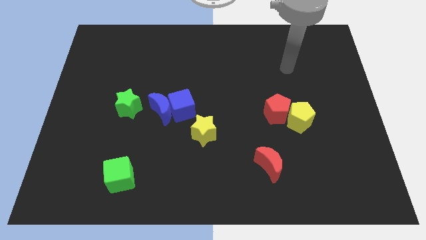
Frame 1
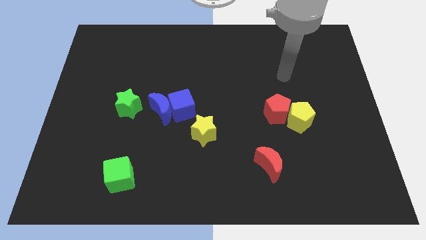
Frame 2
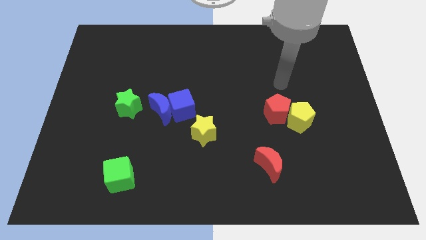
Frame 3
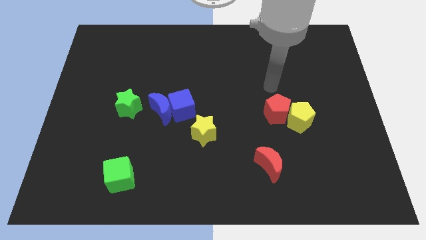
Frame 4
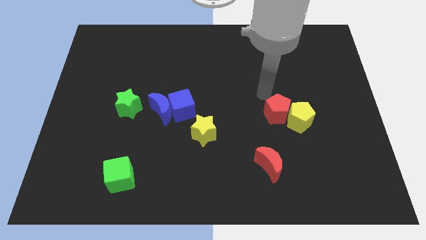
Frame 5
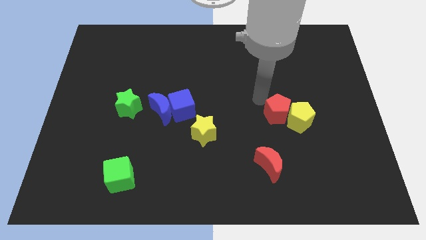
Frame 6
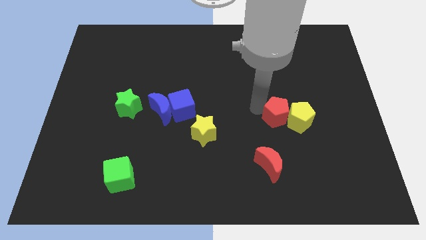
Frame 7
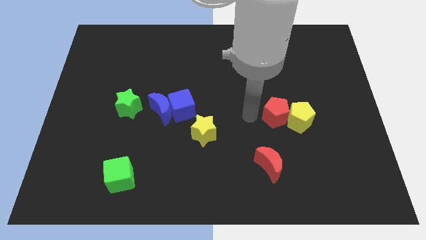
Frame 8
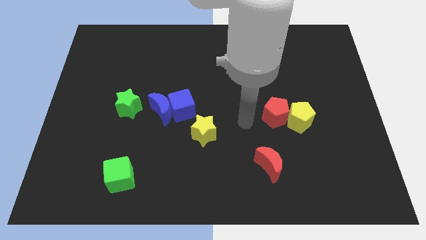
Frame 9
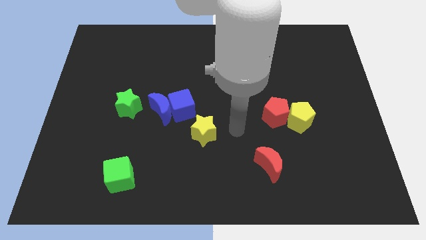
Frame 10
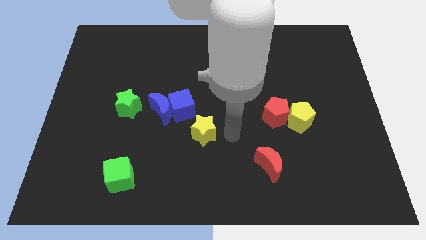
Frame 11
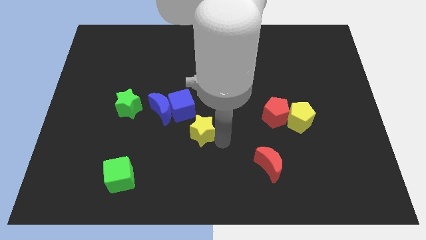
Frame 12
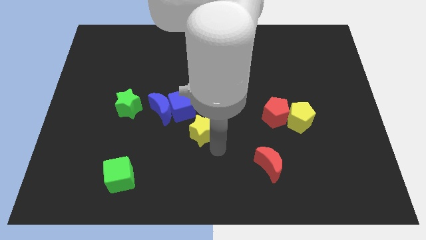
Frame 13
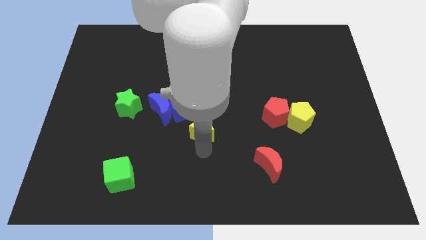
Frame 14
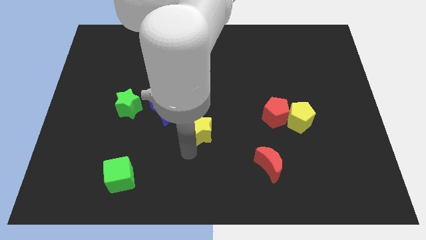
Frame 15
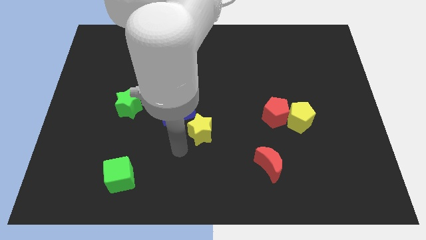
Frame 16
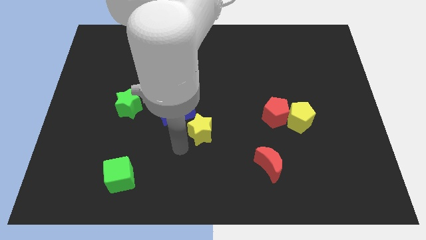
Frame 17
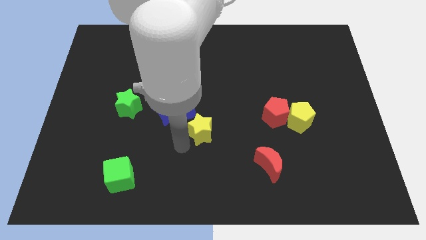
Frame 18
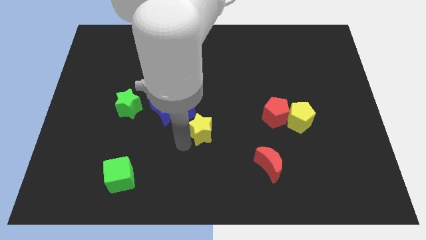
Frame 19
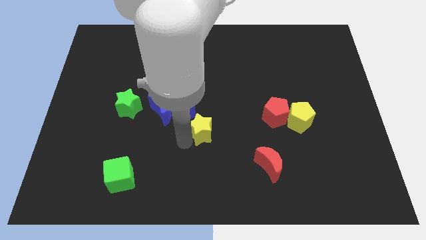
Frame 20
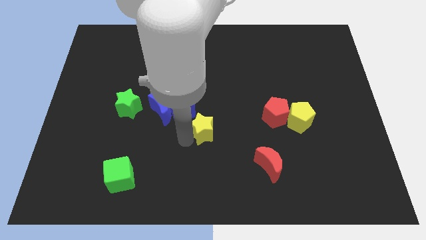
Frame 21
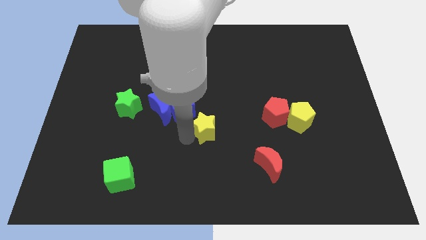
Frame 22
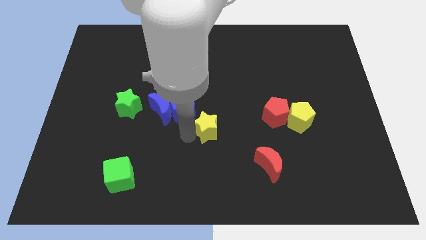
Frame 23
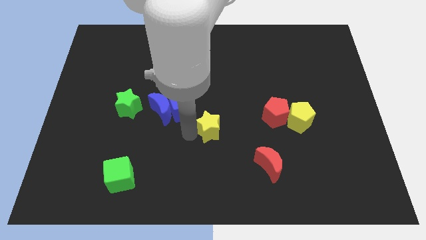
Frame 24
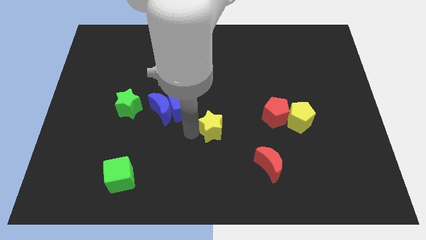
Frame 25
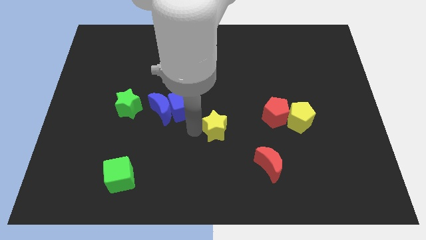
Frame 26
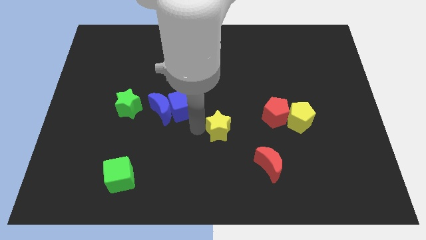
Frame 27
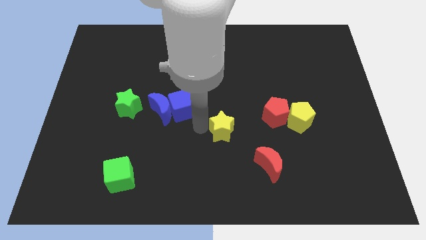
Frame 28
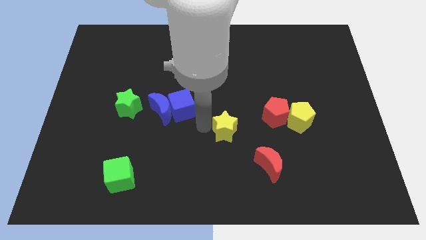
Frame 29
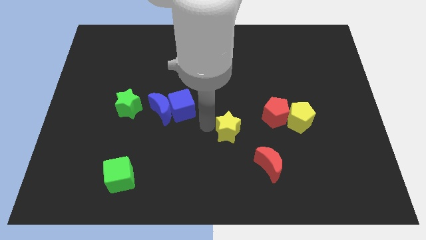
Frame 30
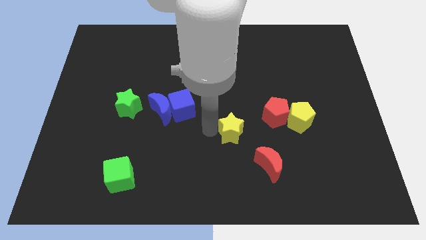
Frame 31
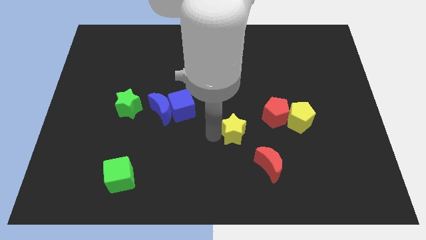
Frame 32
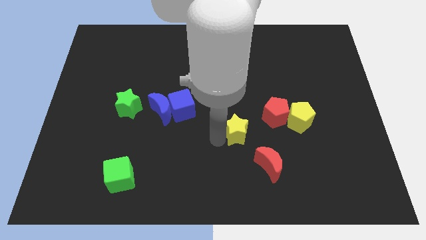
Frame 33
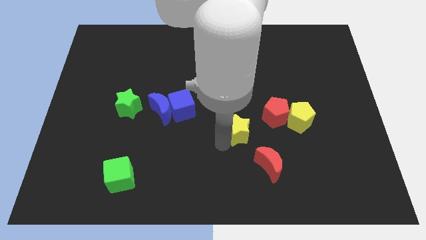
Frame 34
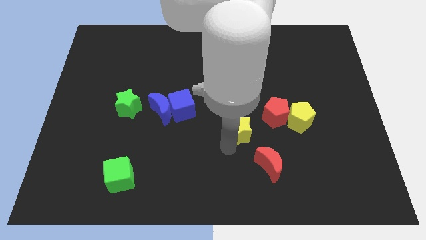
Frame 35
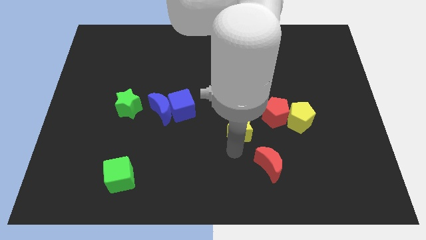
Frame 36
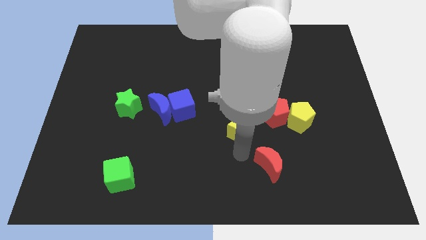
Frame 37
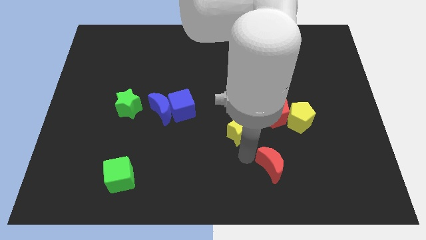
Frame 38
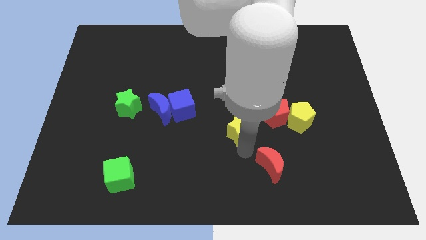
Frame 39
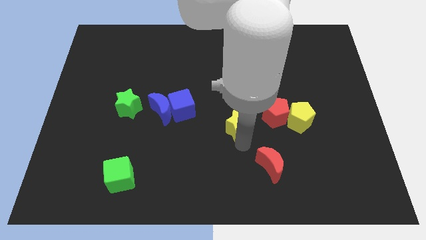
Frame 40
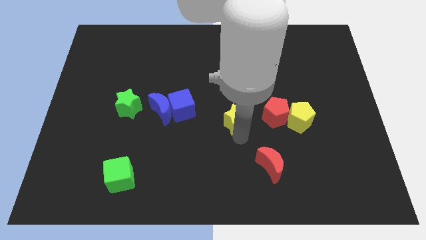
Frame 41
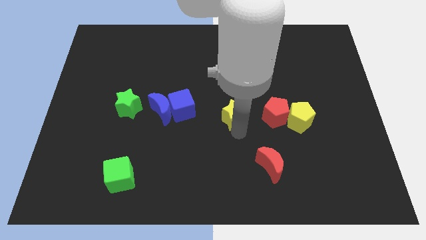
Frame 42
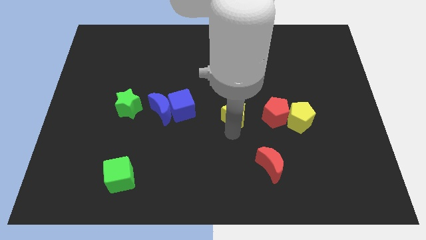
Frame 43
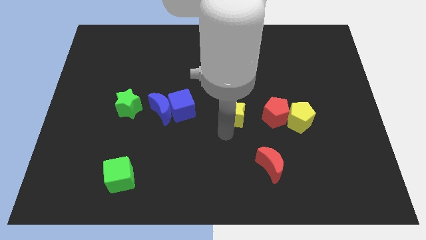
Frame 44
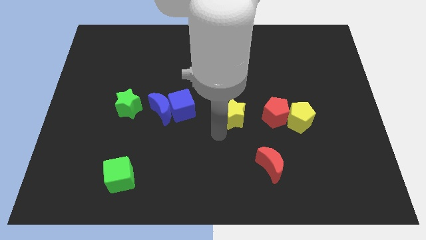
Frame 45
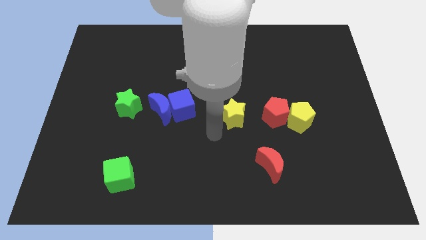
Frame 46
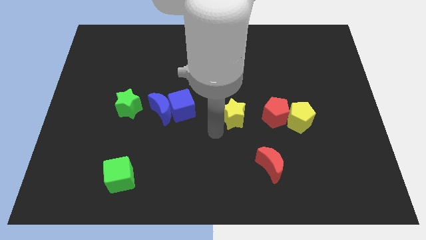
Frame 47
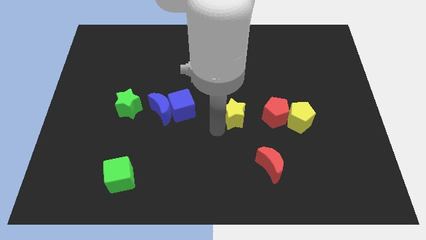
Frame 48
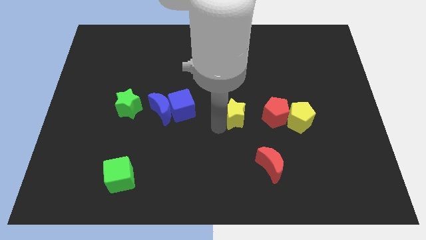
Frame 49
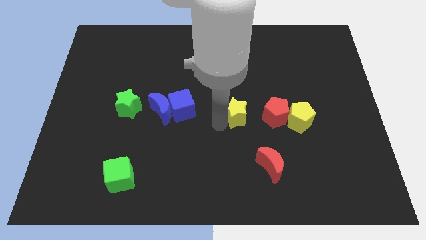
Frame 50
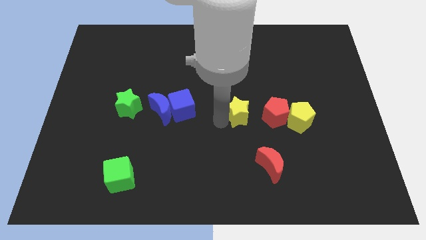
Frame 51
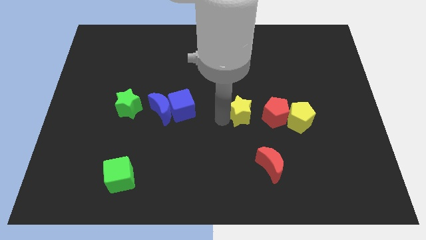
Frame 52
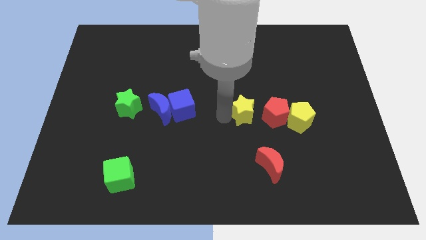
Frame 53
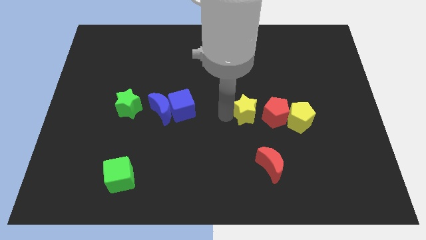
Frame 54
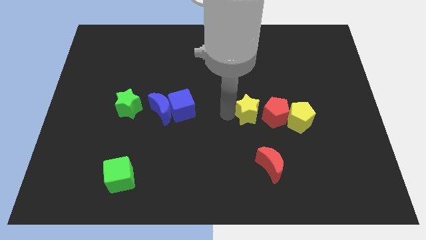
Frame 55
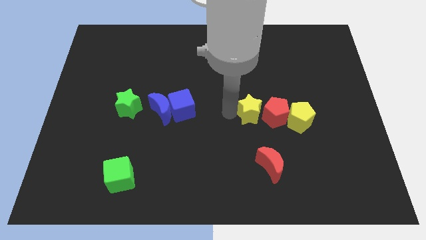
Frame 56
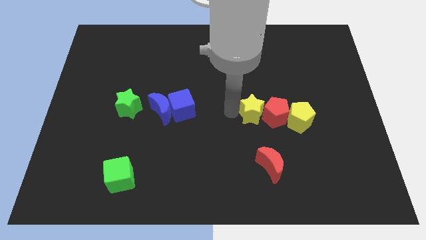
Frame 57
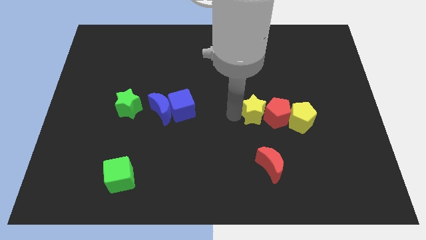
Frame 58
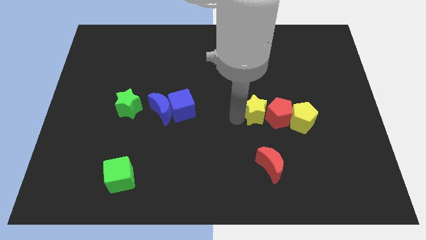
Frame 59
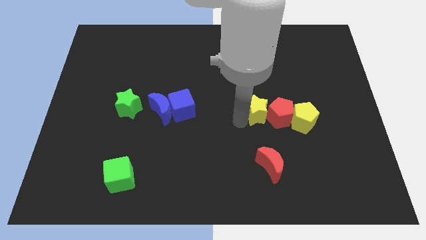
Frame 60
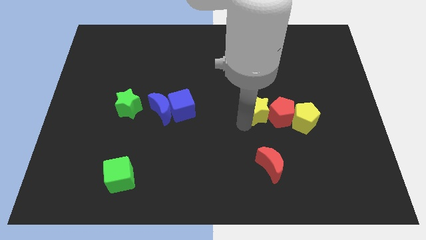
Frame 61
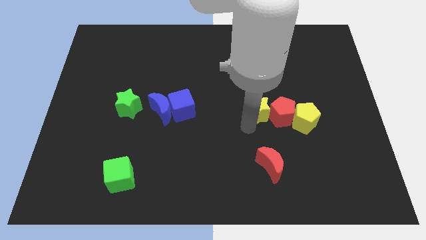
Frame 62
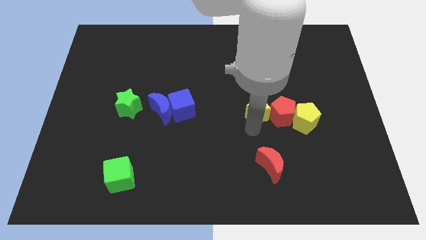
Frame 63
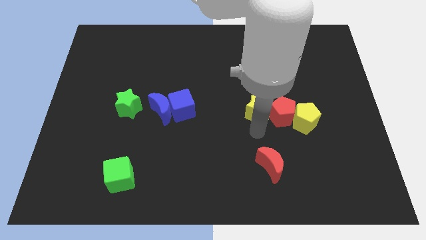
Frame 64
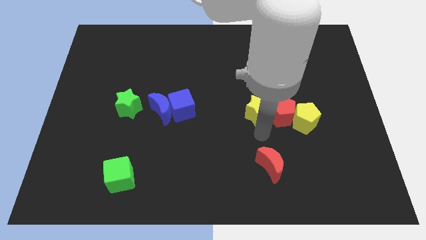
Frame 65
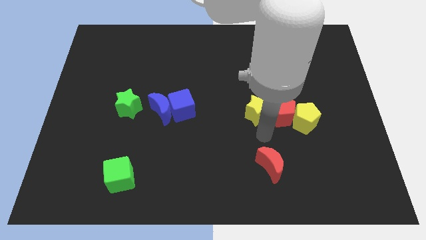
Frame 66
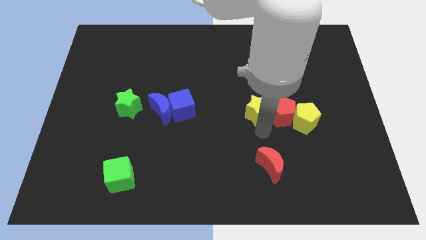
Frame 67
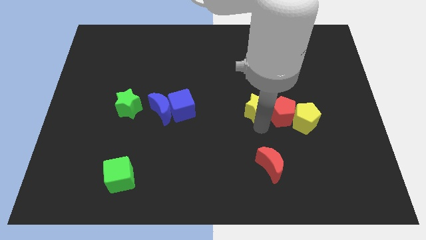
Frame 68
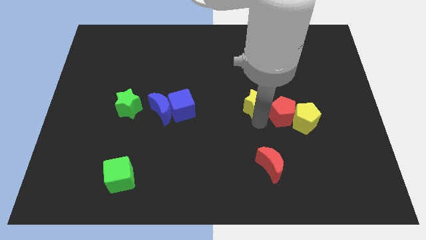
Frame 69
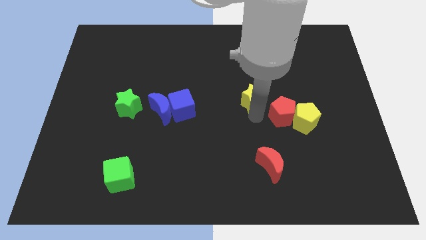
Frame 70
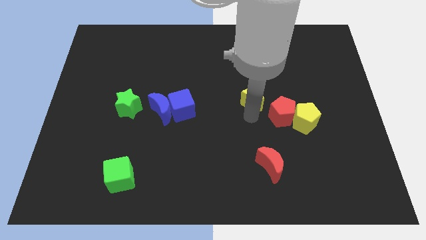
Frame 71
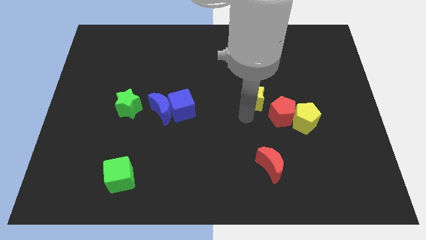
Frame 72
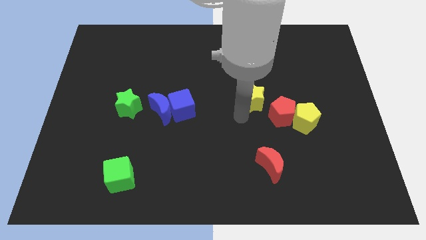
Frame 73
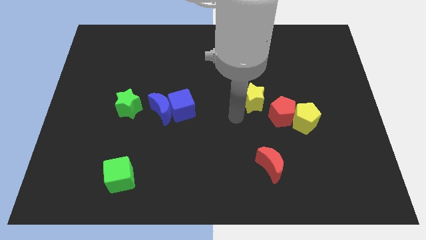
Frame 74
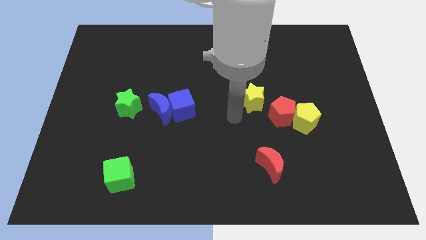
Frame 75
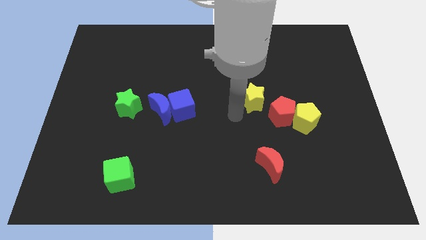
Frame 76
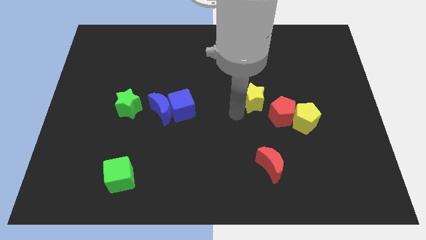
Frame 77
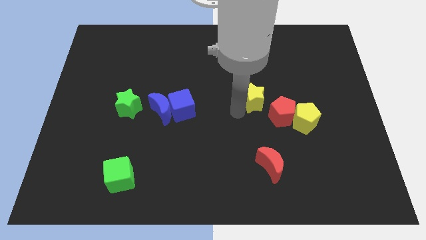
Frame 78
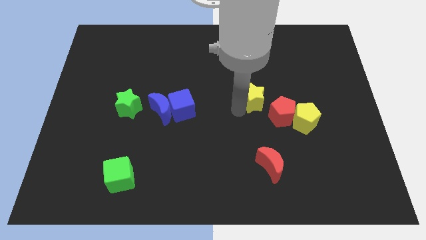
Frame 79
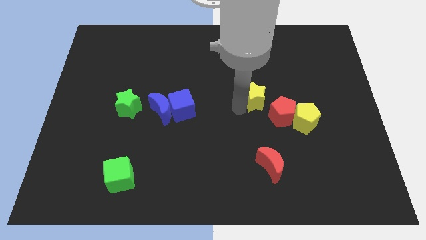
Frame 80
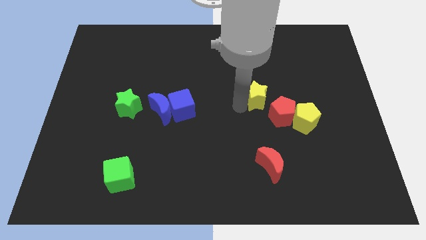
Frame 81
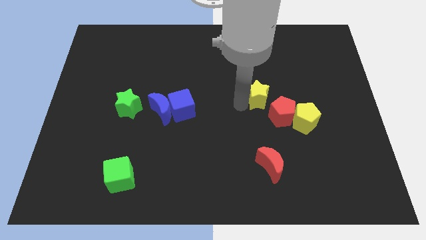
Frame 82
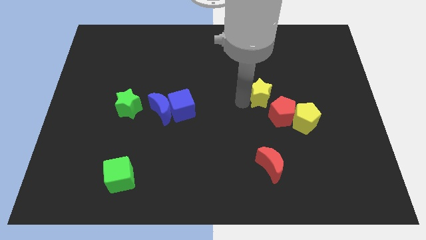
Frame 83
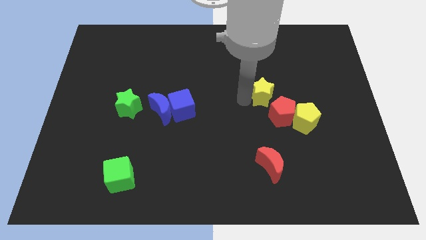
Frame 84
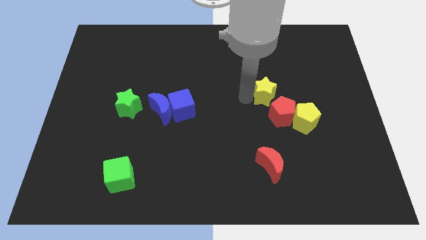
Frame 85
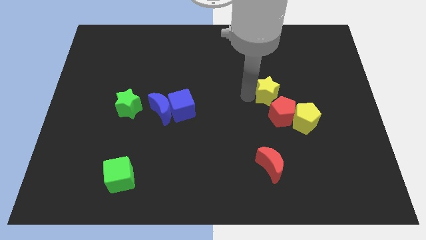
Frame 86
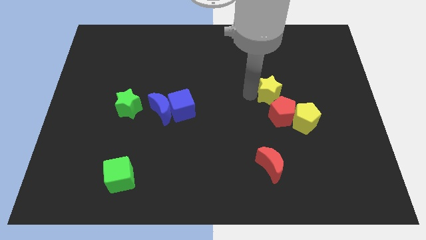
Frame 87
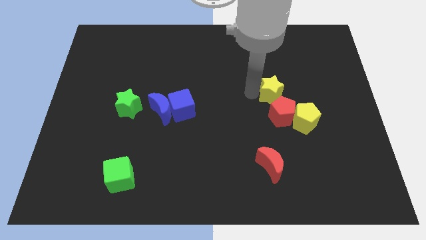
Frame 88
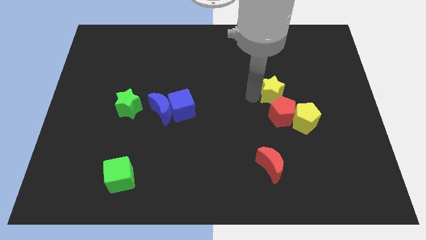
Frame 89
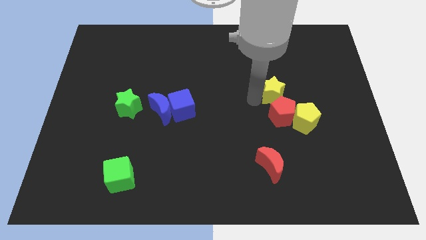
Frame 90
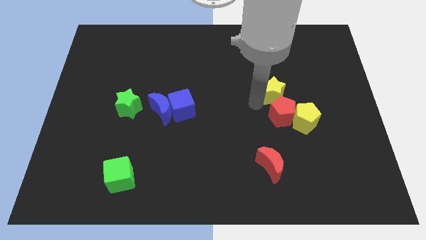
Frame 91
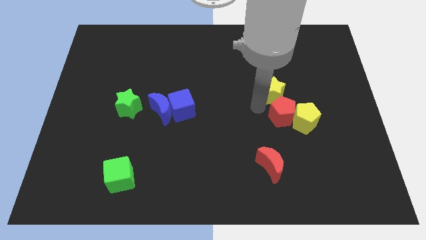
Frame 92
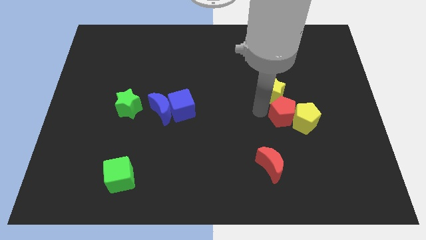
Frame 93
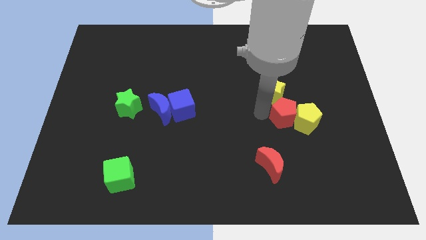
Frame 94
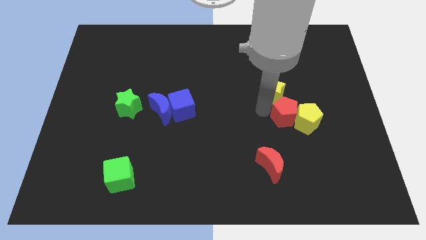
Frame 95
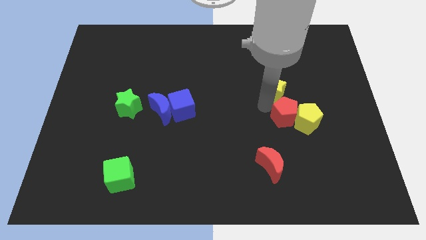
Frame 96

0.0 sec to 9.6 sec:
move the yellow star diagonally upwards and to the right
